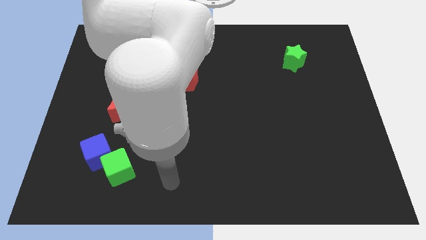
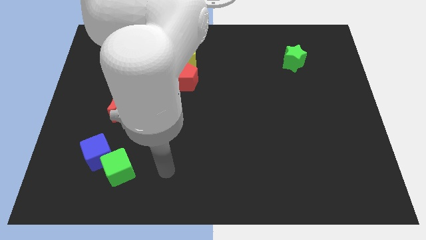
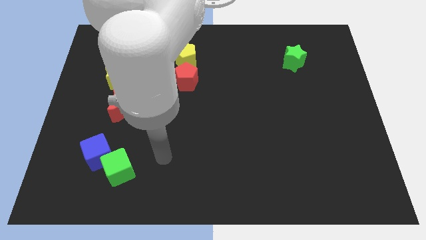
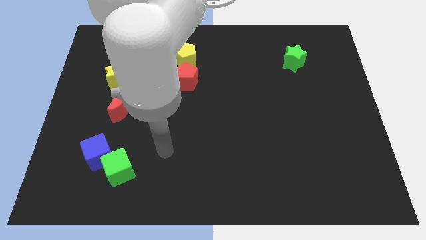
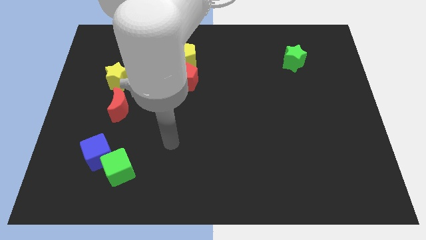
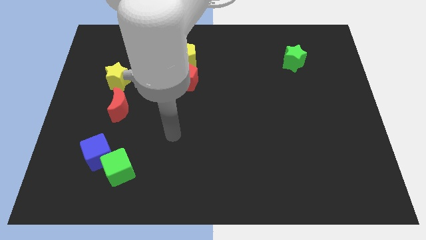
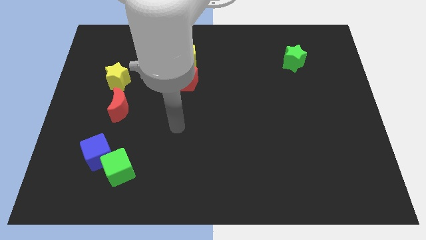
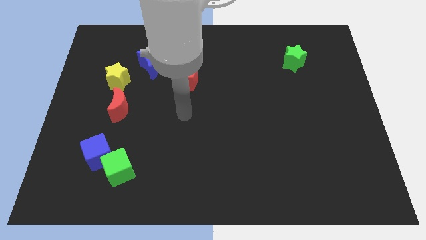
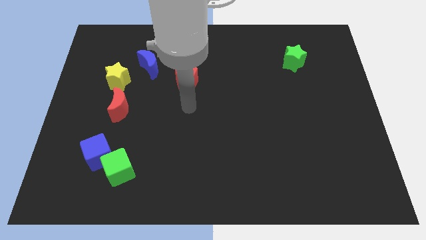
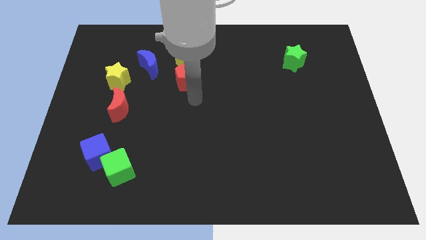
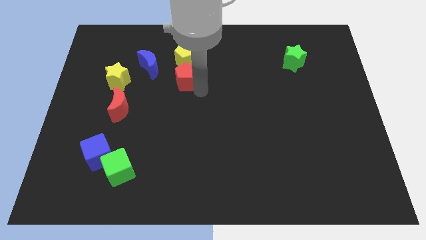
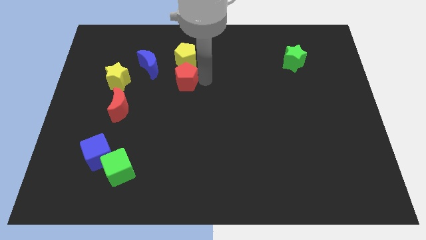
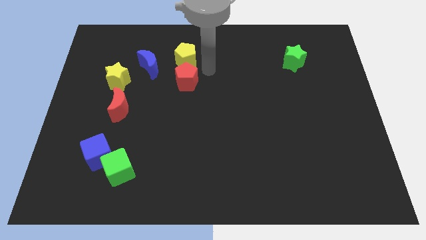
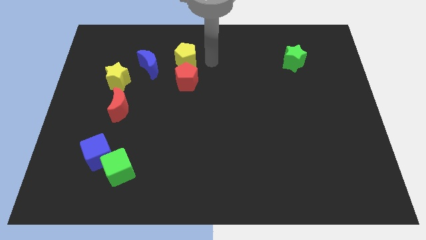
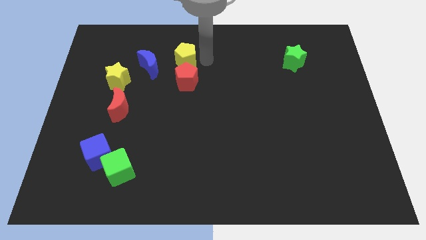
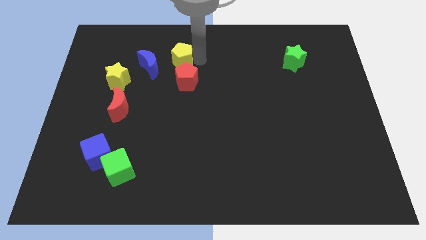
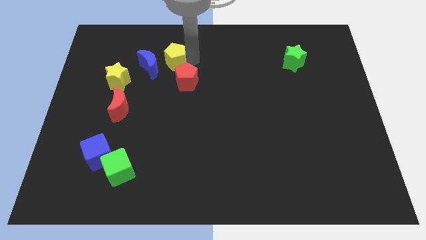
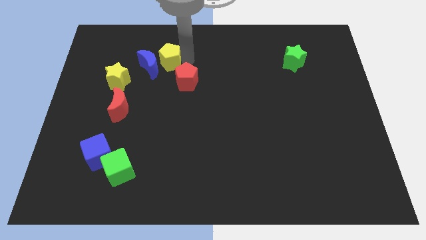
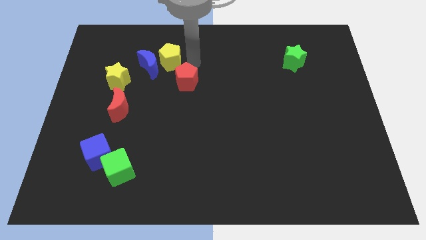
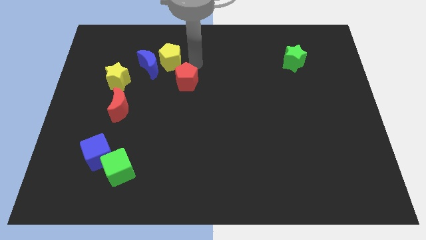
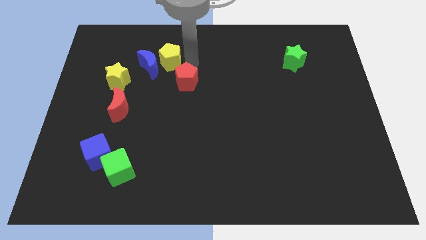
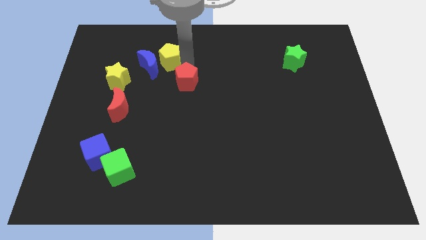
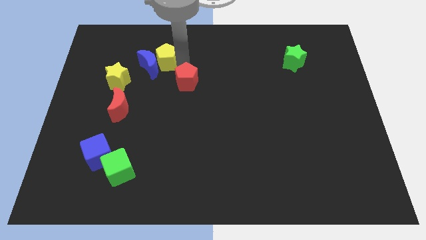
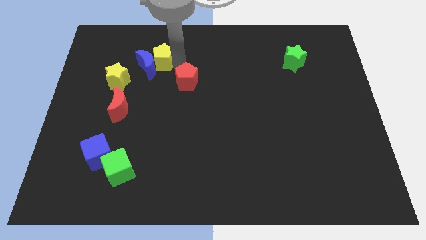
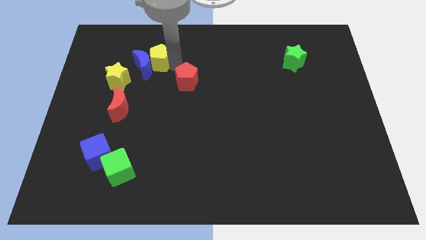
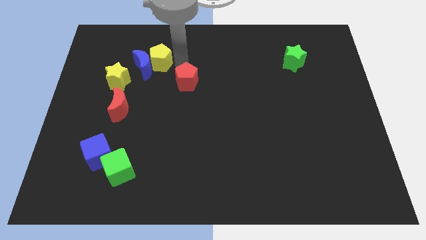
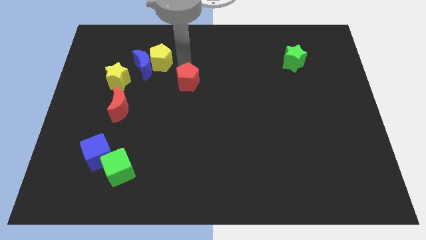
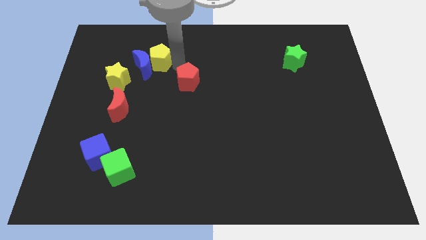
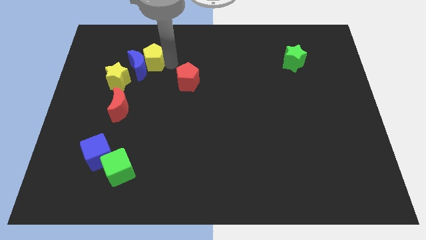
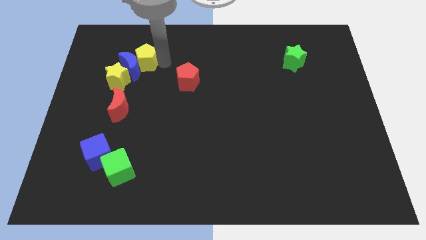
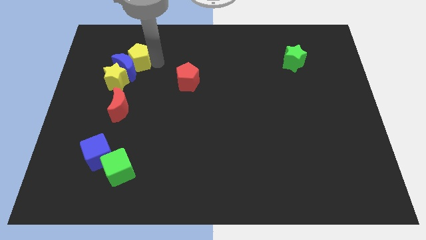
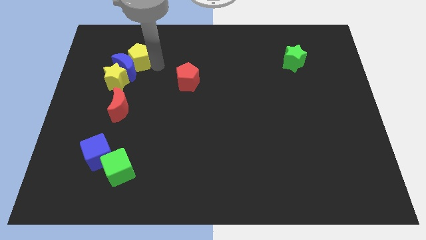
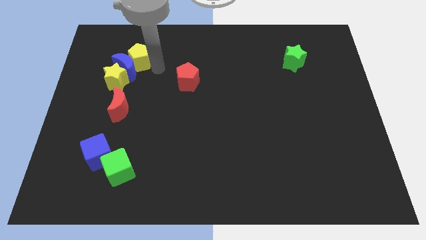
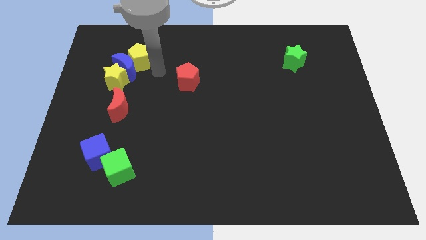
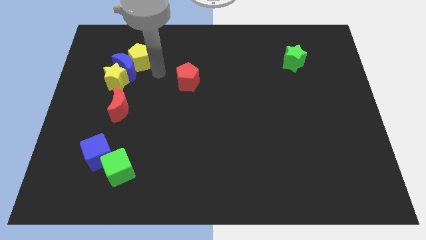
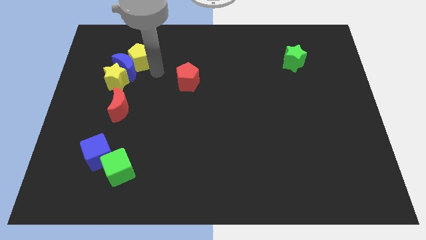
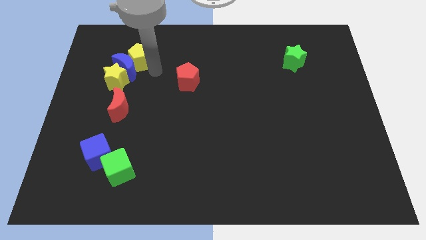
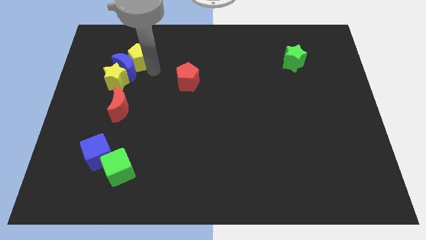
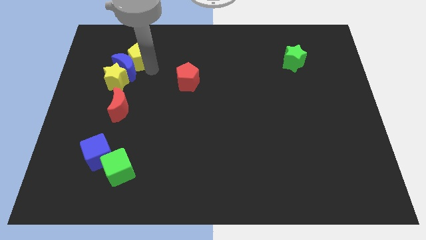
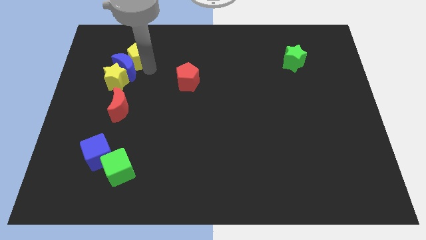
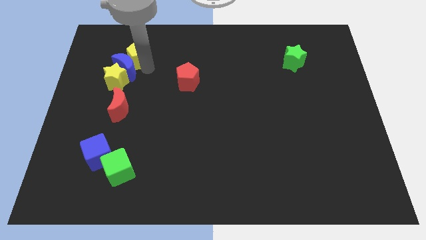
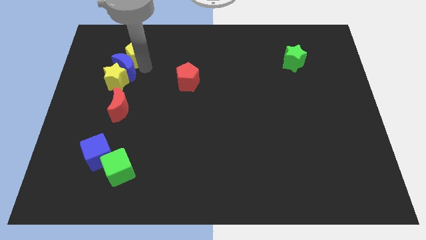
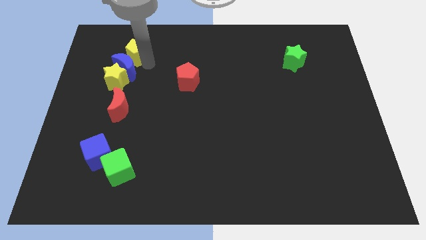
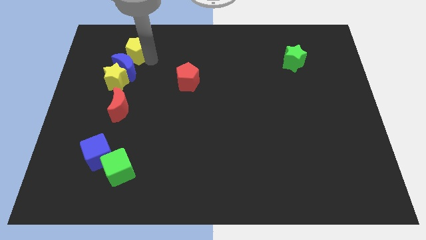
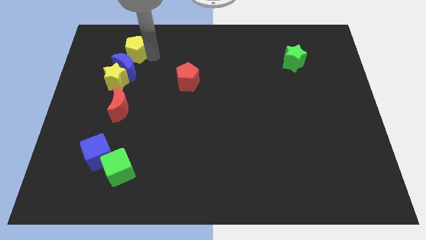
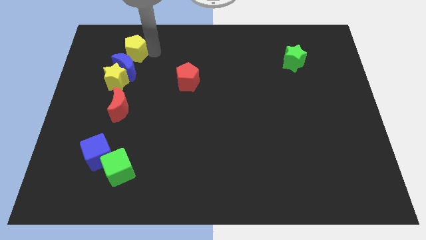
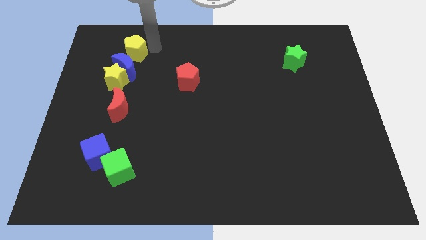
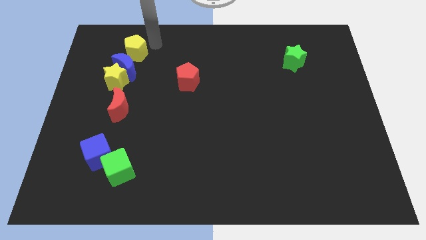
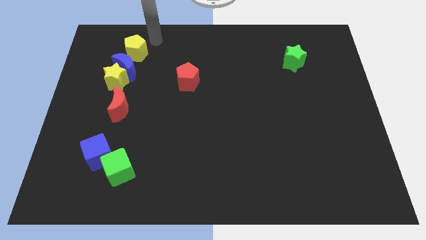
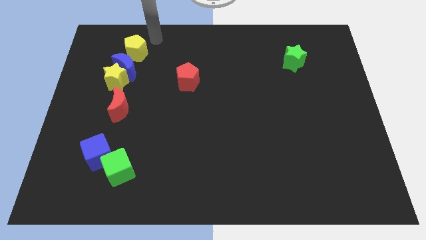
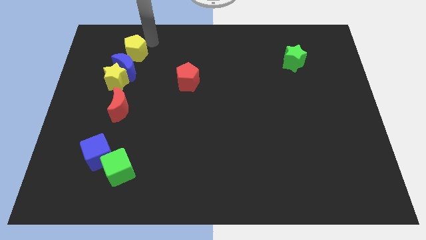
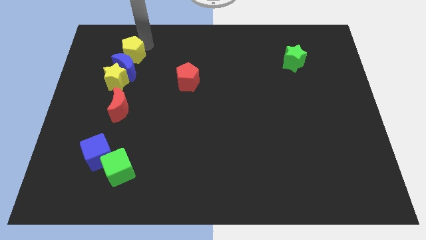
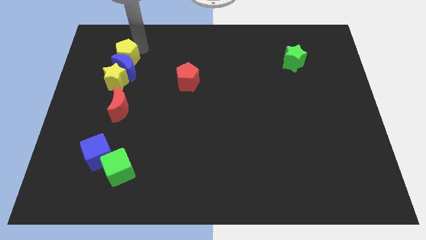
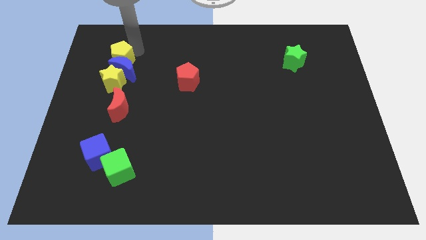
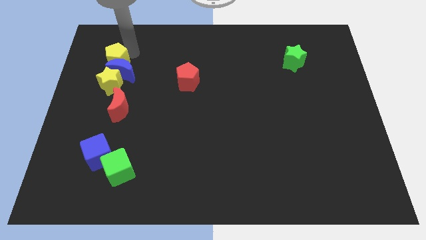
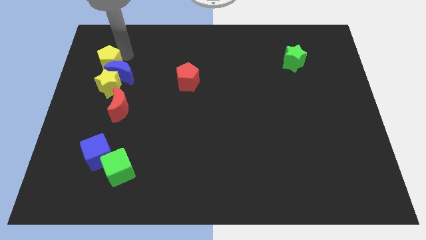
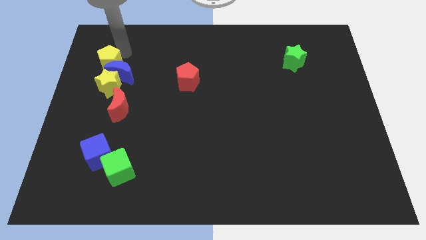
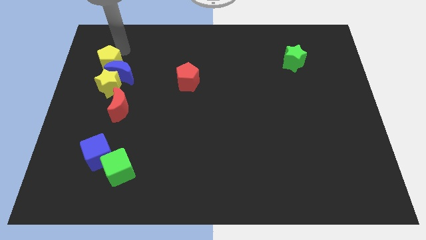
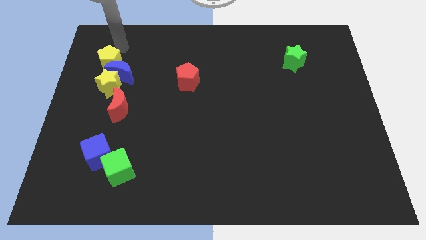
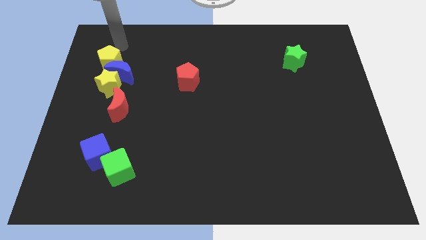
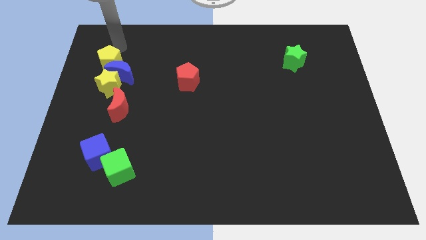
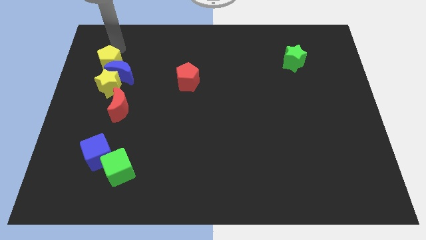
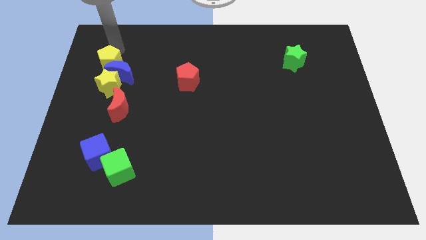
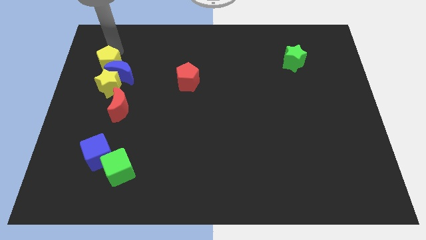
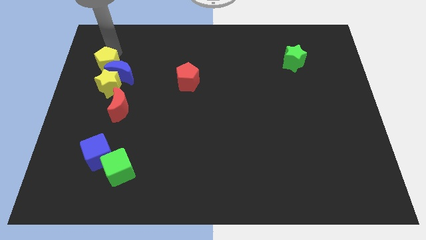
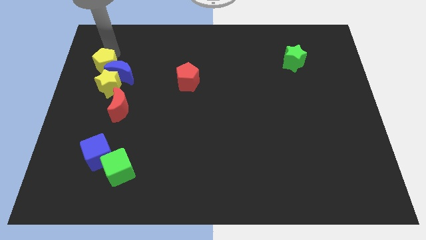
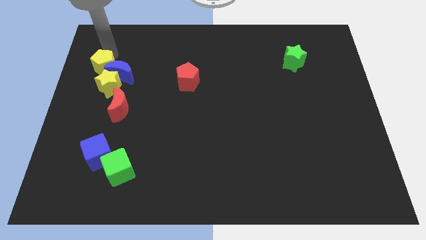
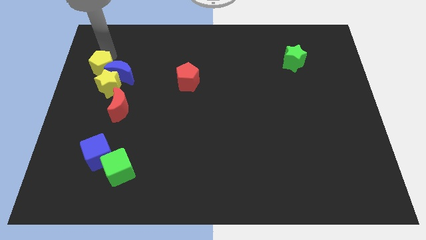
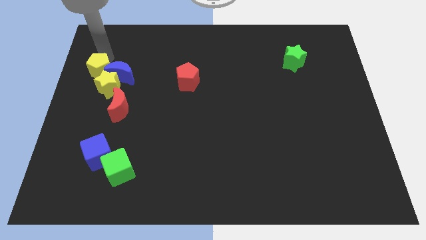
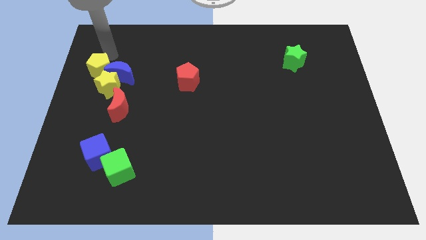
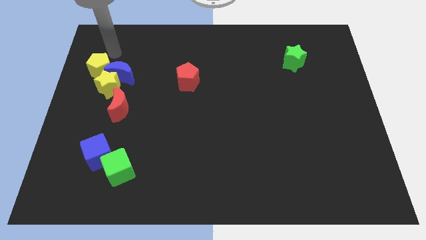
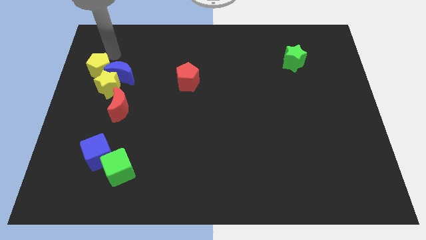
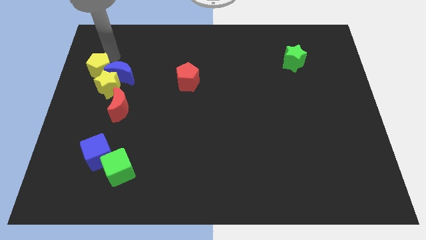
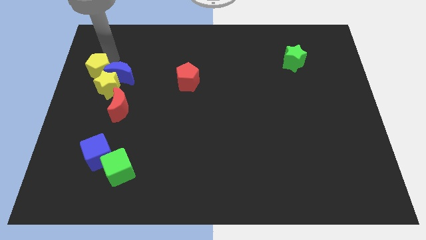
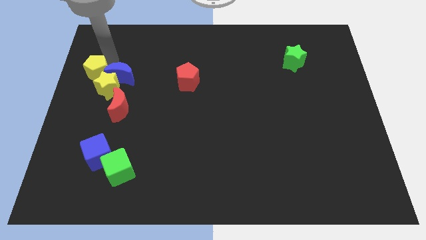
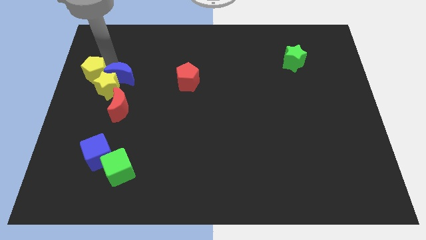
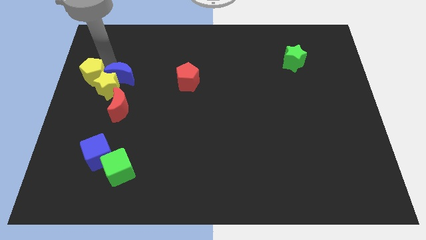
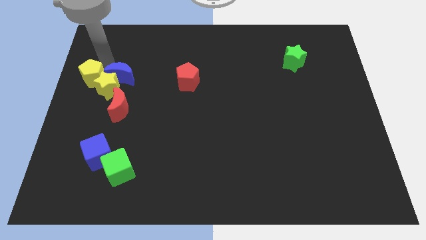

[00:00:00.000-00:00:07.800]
slide the yellow pentagon diagonally up and to the left of the red moon
